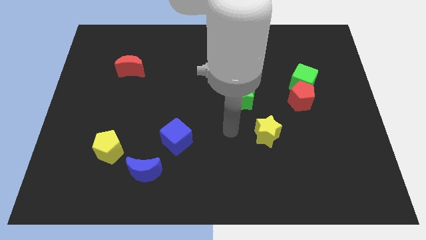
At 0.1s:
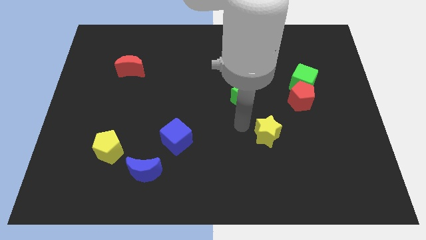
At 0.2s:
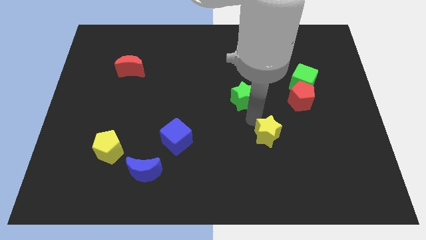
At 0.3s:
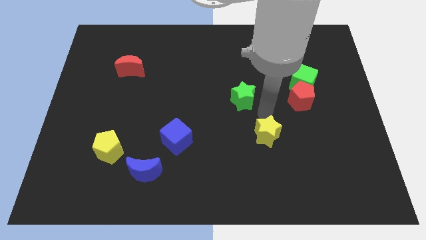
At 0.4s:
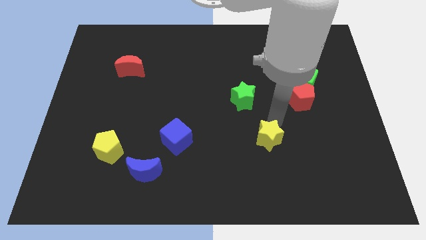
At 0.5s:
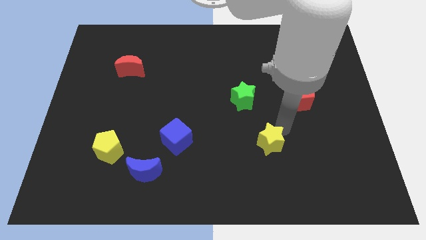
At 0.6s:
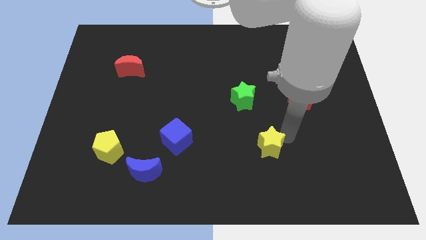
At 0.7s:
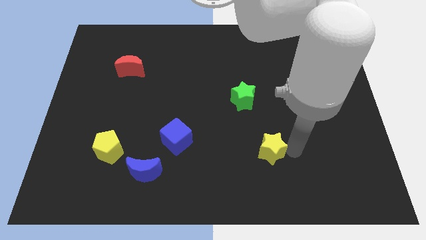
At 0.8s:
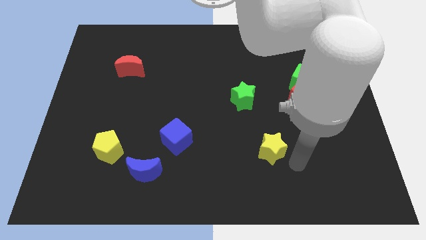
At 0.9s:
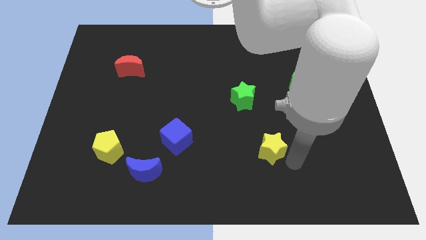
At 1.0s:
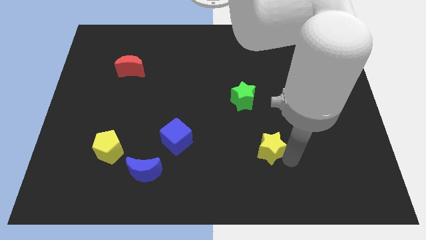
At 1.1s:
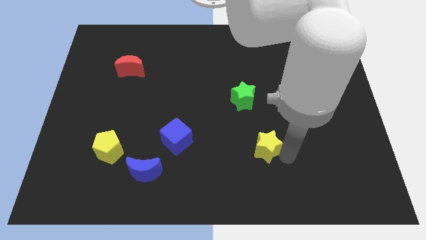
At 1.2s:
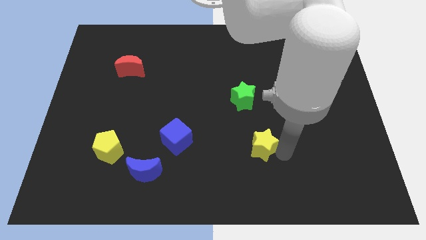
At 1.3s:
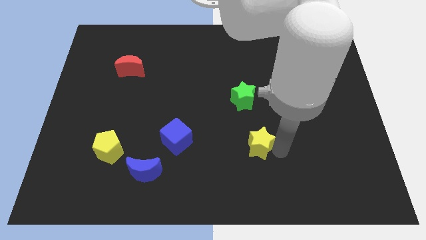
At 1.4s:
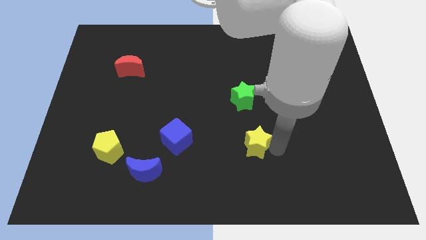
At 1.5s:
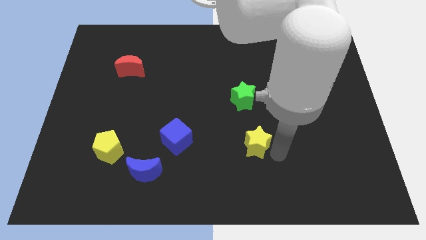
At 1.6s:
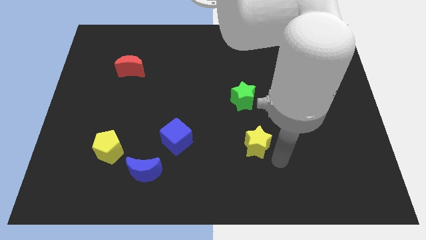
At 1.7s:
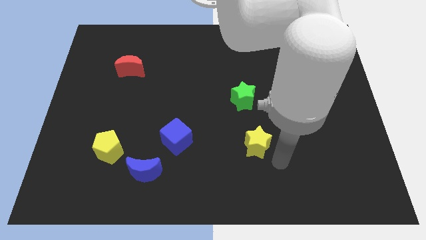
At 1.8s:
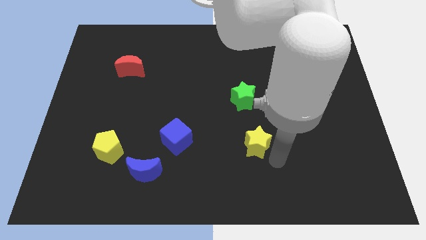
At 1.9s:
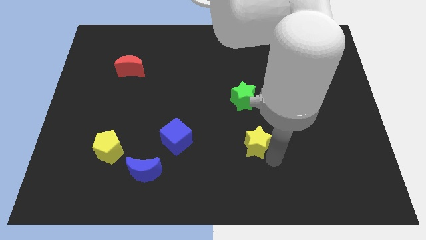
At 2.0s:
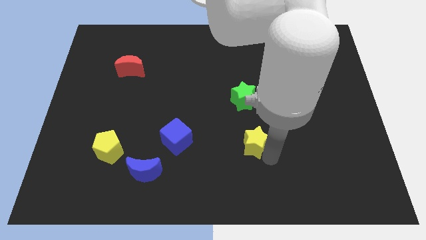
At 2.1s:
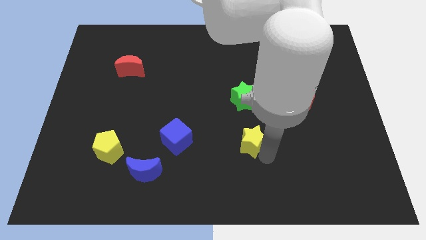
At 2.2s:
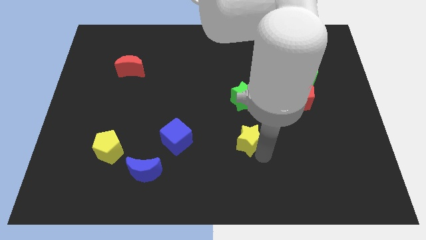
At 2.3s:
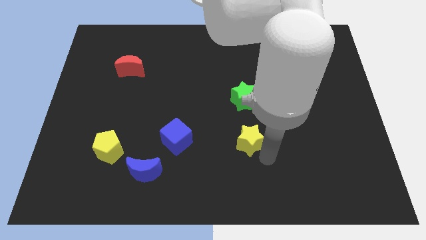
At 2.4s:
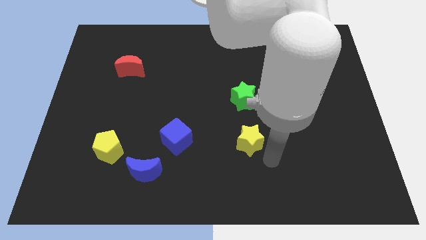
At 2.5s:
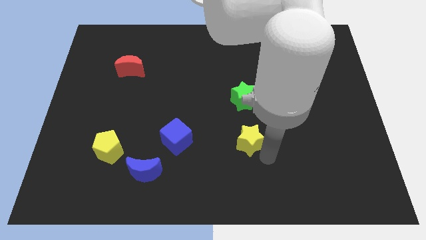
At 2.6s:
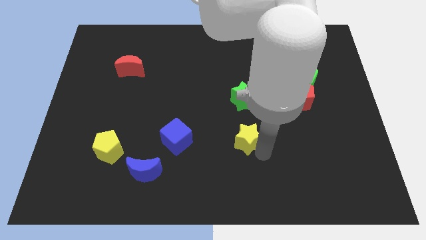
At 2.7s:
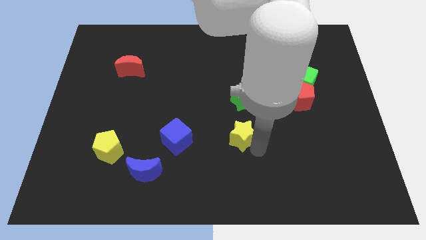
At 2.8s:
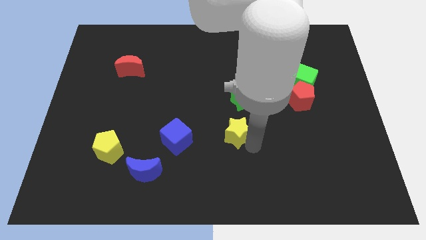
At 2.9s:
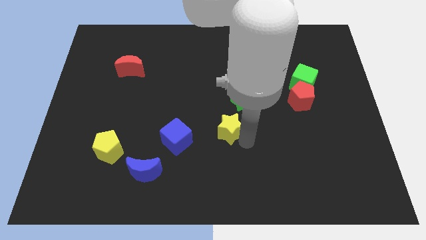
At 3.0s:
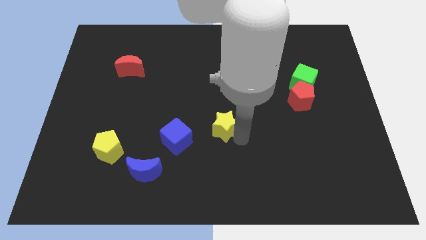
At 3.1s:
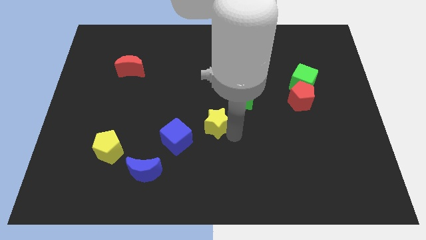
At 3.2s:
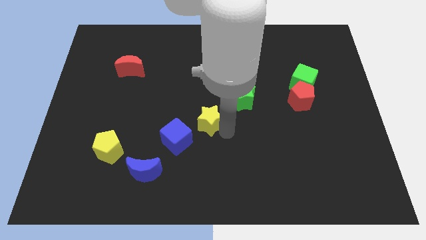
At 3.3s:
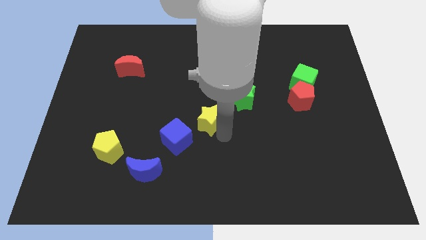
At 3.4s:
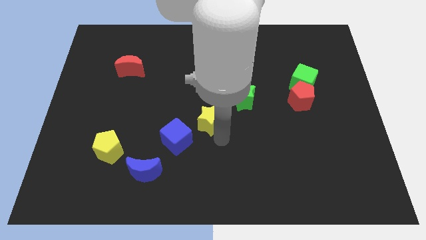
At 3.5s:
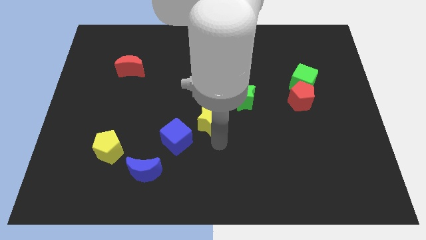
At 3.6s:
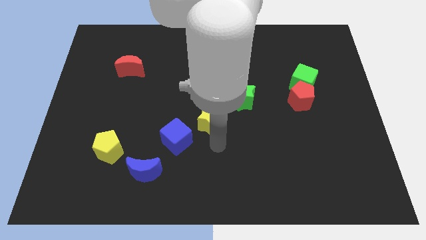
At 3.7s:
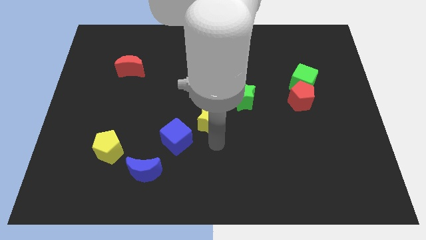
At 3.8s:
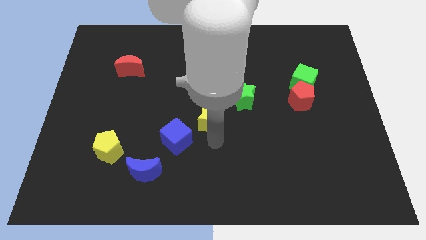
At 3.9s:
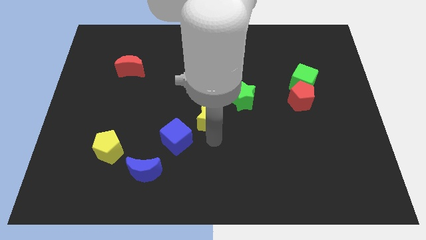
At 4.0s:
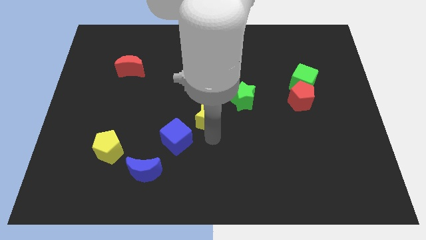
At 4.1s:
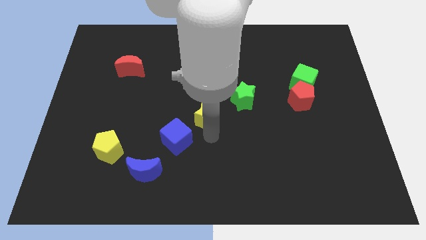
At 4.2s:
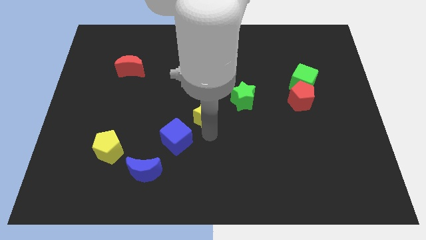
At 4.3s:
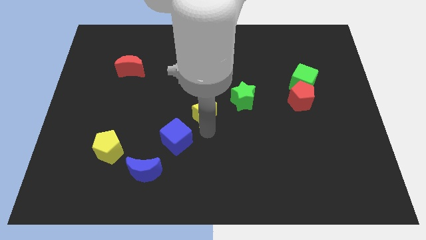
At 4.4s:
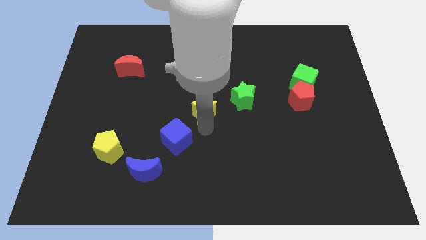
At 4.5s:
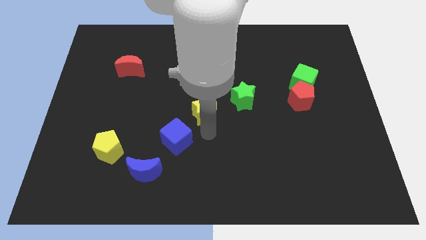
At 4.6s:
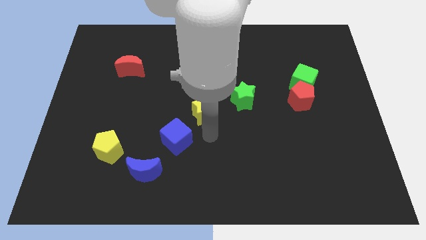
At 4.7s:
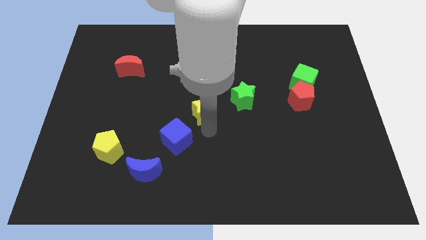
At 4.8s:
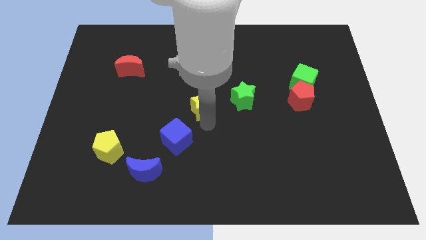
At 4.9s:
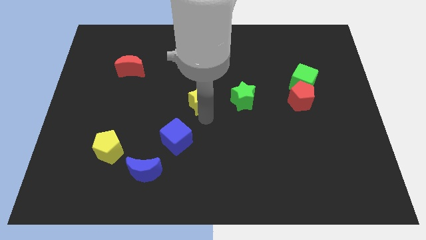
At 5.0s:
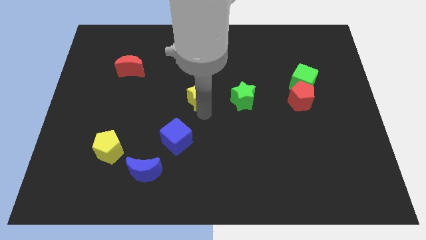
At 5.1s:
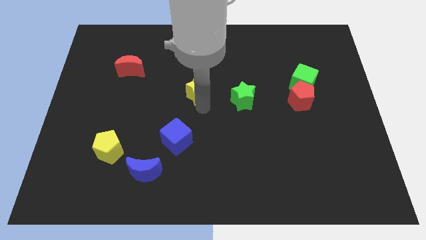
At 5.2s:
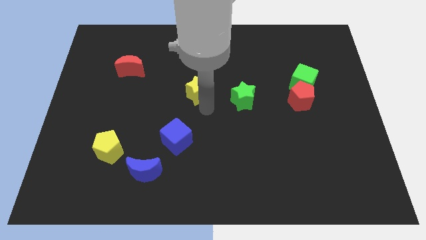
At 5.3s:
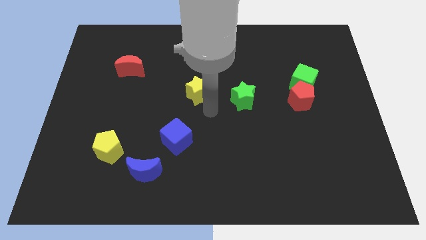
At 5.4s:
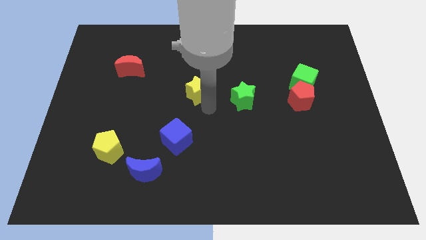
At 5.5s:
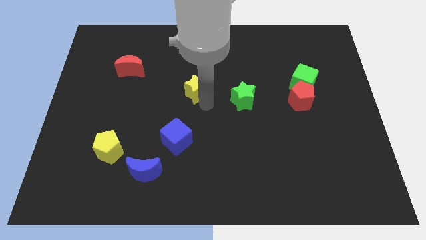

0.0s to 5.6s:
slide the yellow star diagonally upwards and to the left

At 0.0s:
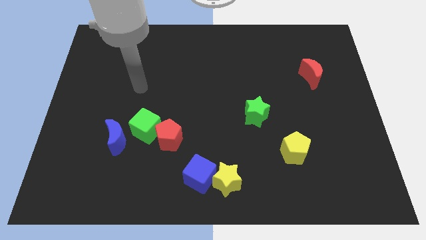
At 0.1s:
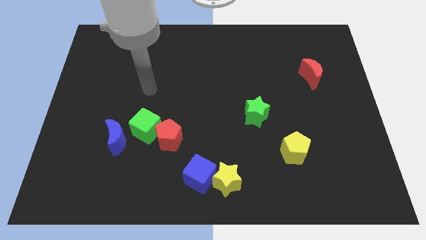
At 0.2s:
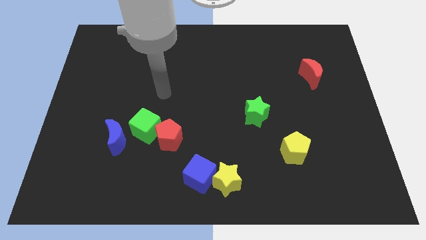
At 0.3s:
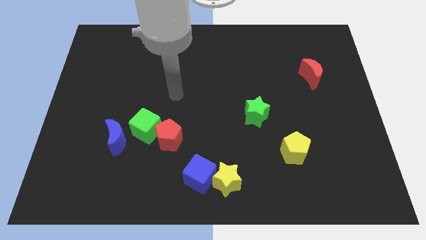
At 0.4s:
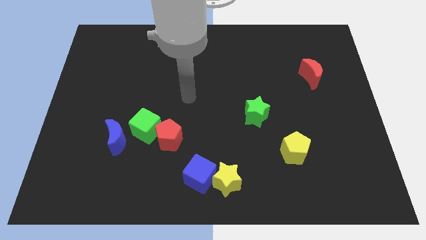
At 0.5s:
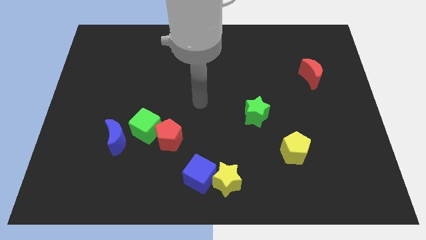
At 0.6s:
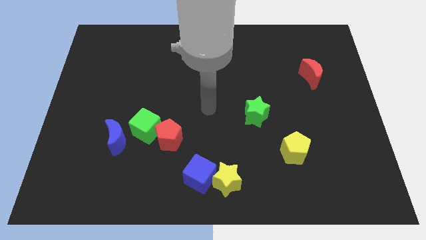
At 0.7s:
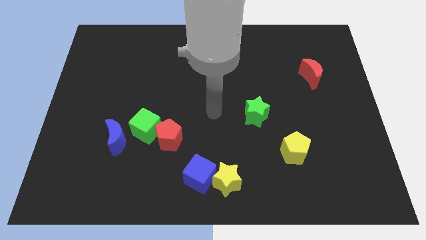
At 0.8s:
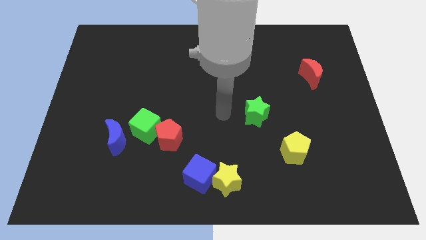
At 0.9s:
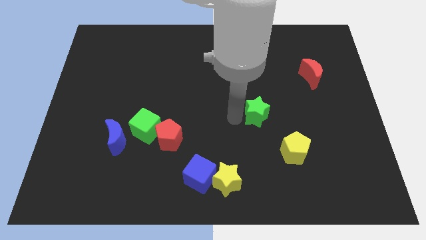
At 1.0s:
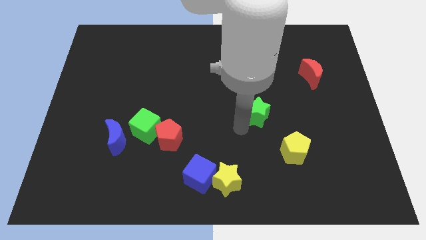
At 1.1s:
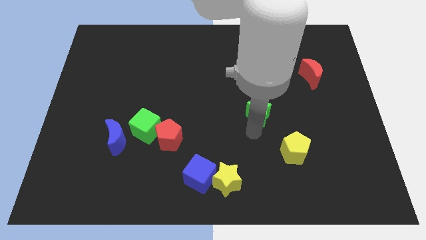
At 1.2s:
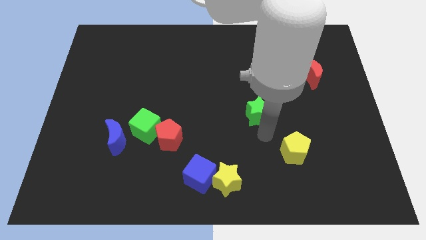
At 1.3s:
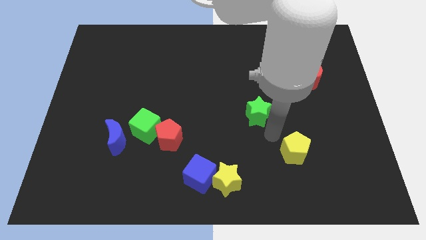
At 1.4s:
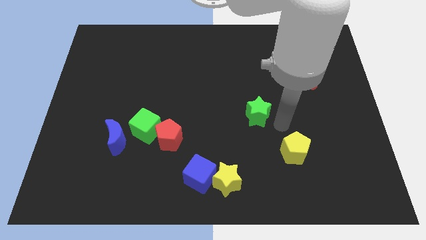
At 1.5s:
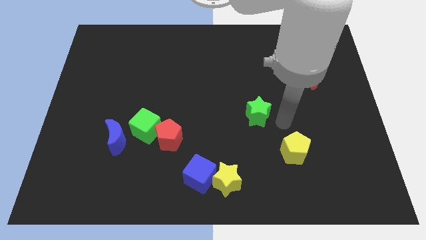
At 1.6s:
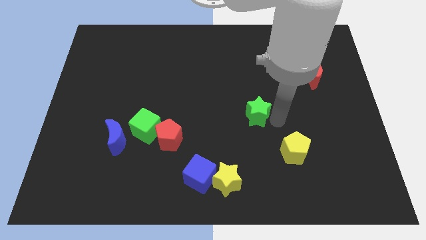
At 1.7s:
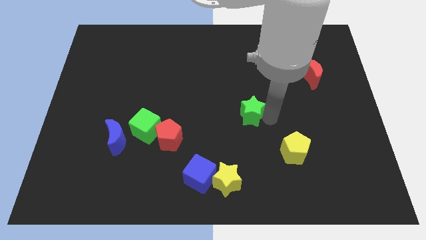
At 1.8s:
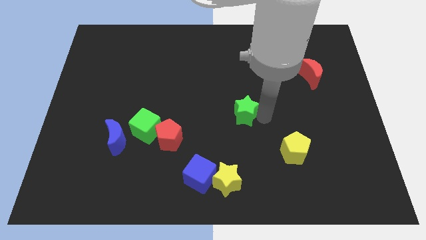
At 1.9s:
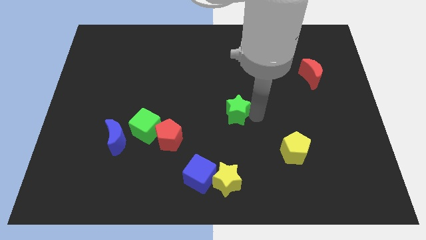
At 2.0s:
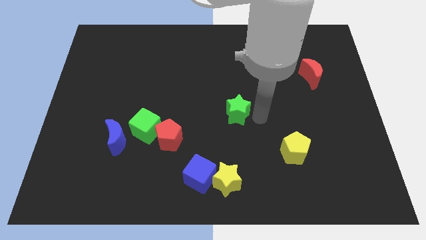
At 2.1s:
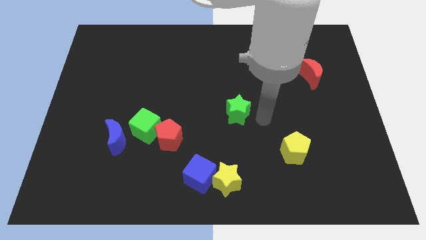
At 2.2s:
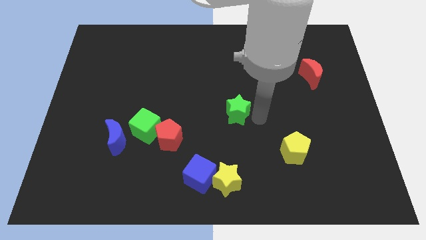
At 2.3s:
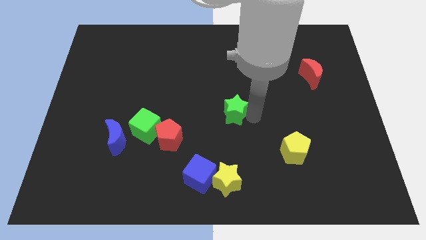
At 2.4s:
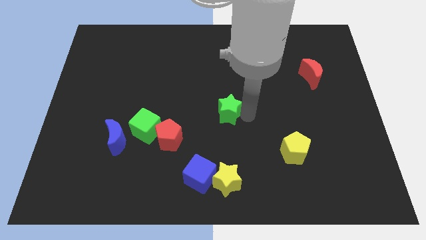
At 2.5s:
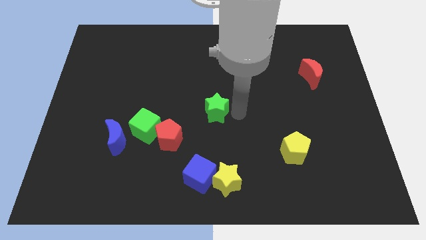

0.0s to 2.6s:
slide the green star a bit to the left
